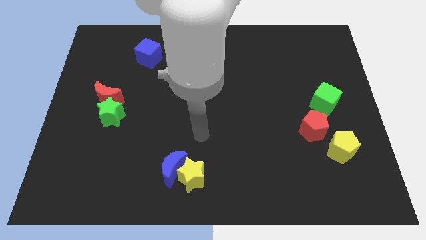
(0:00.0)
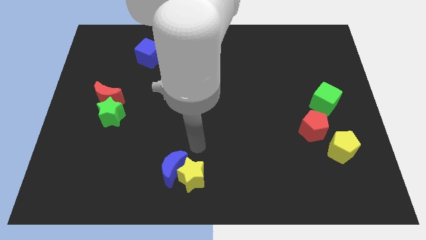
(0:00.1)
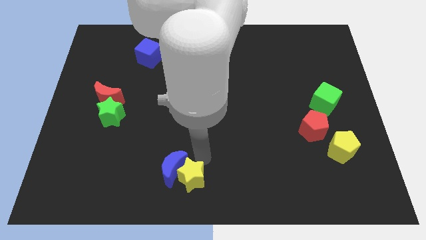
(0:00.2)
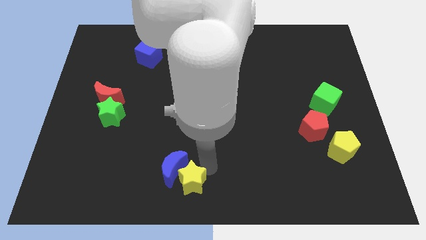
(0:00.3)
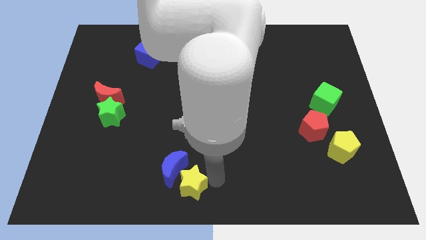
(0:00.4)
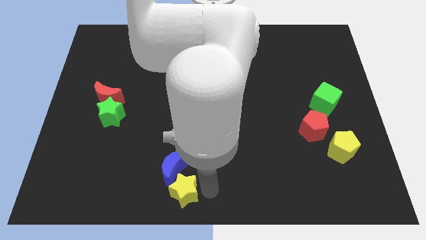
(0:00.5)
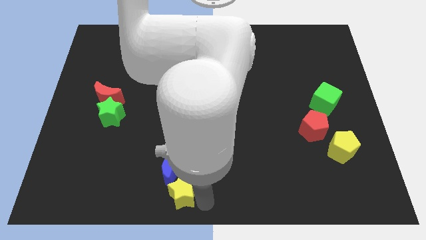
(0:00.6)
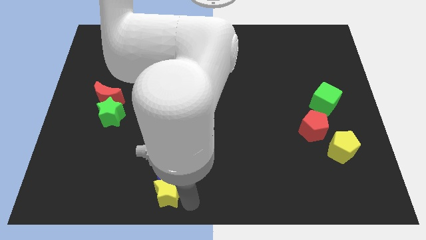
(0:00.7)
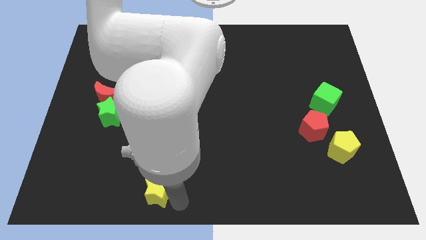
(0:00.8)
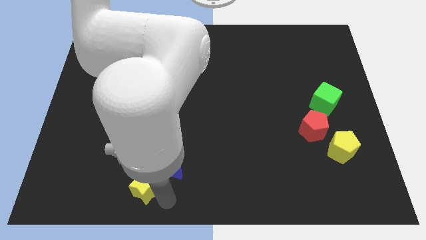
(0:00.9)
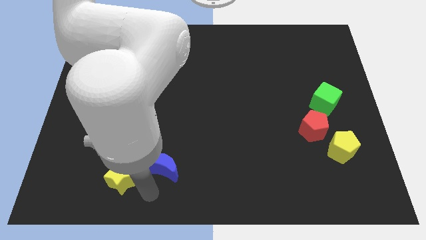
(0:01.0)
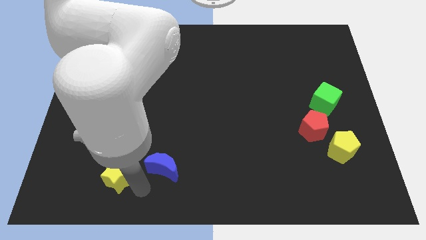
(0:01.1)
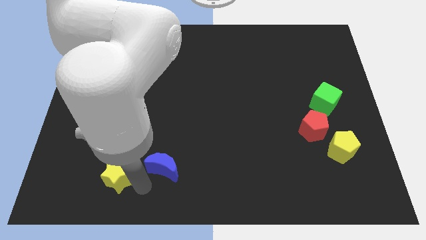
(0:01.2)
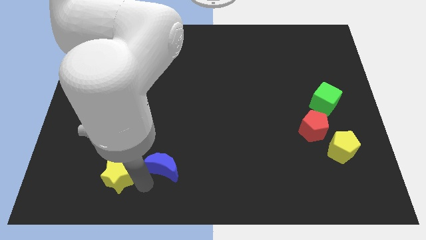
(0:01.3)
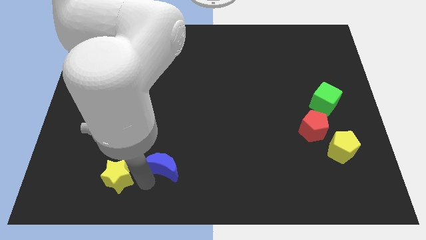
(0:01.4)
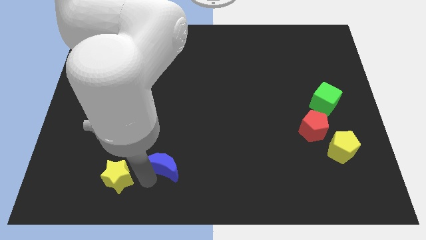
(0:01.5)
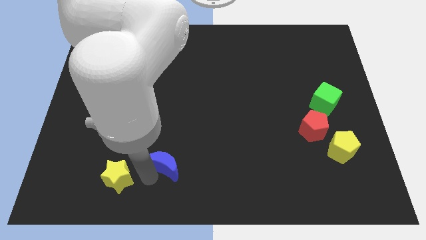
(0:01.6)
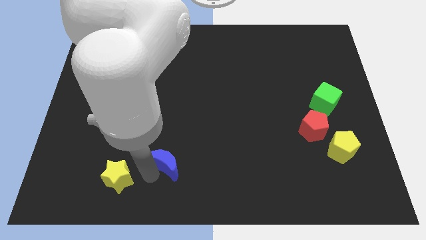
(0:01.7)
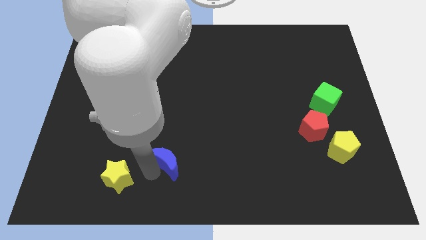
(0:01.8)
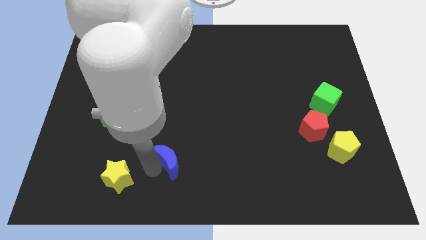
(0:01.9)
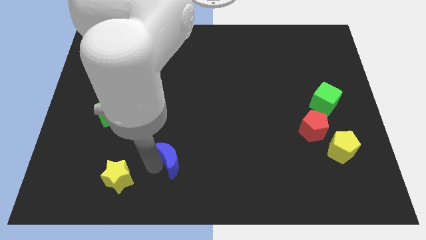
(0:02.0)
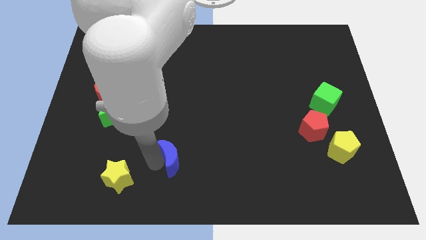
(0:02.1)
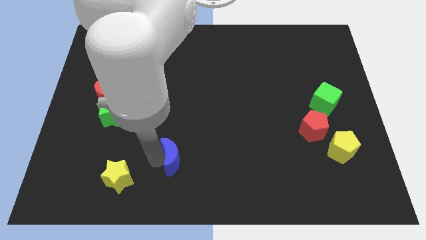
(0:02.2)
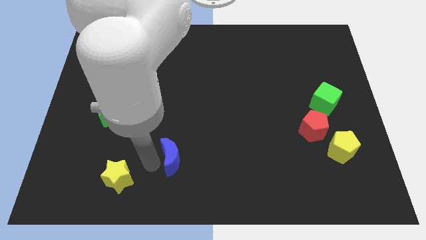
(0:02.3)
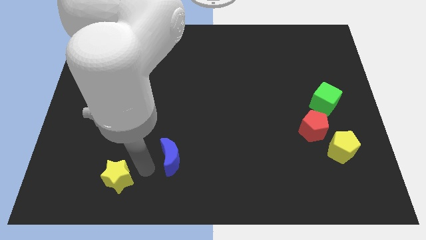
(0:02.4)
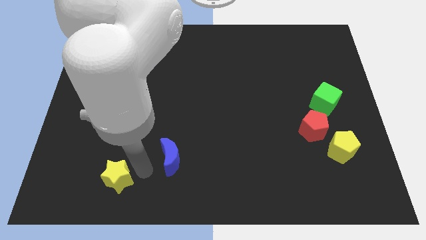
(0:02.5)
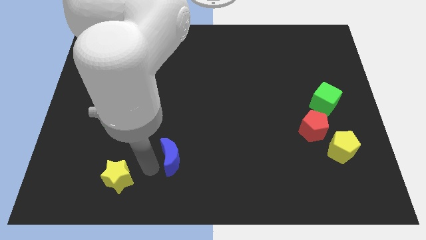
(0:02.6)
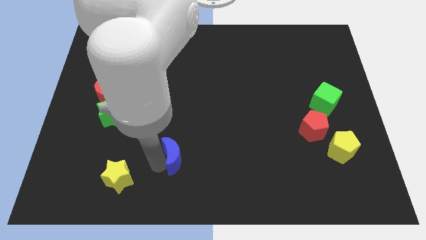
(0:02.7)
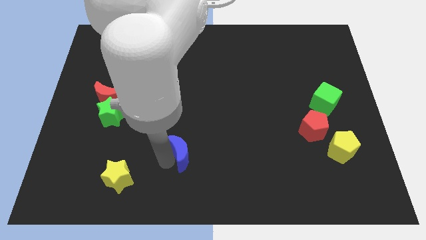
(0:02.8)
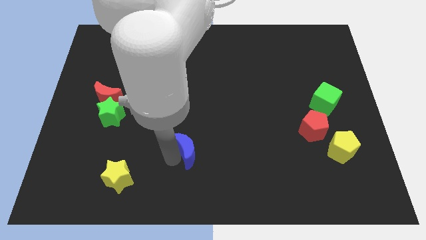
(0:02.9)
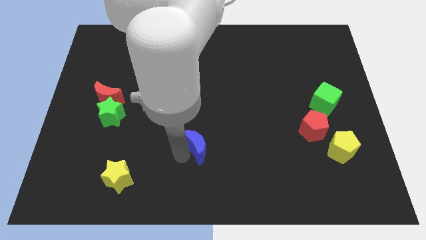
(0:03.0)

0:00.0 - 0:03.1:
slide the blue moon slightly up and then right

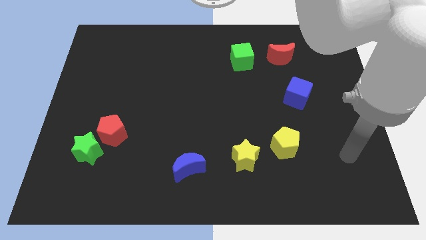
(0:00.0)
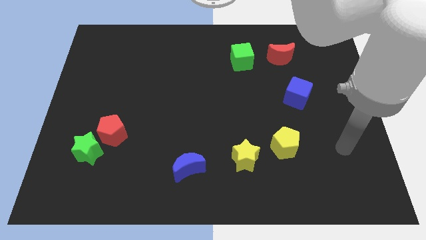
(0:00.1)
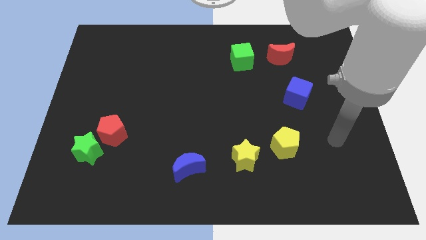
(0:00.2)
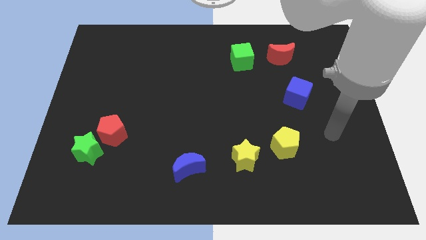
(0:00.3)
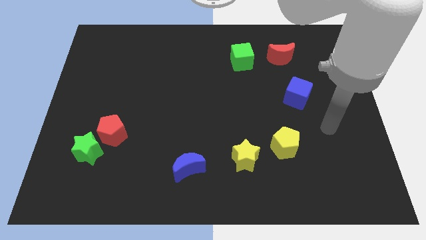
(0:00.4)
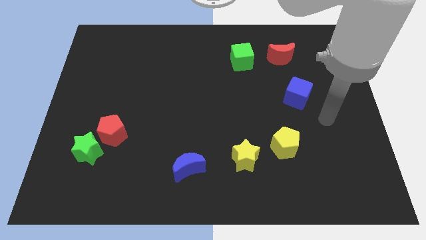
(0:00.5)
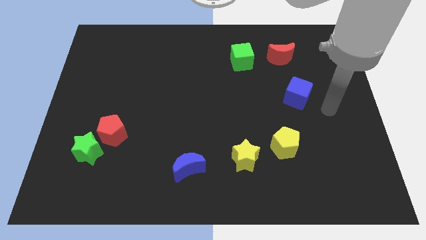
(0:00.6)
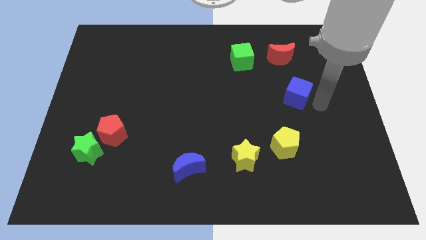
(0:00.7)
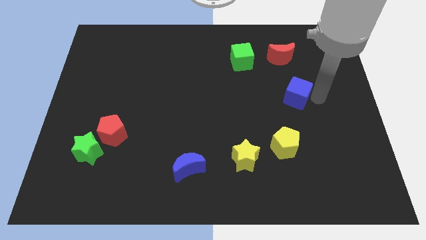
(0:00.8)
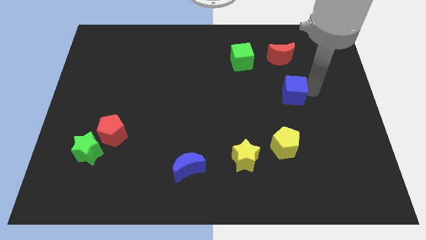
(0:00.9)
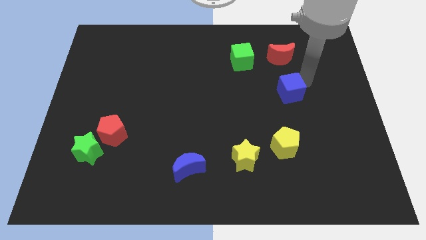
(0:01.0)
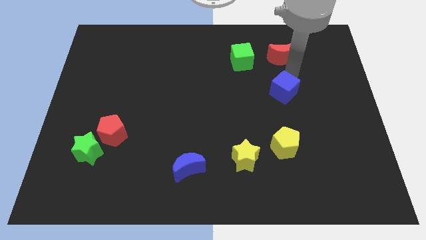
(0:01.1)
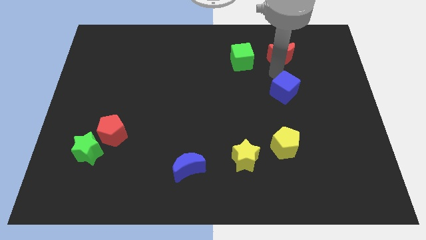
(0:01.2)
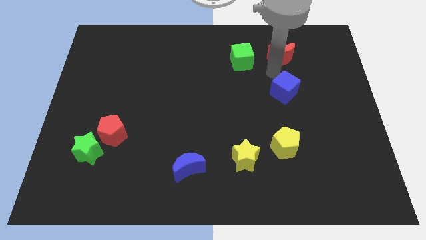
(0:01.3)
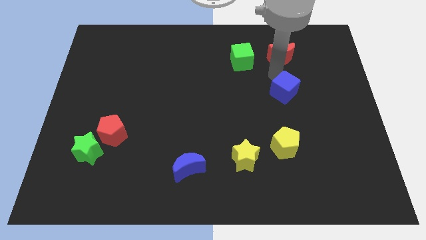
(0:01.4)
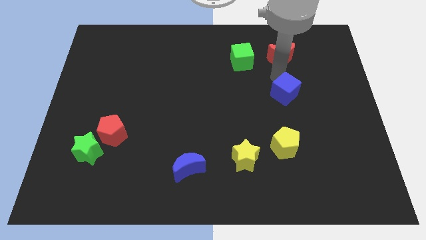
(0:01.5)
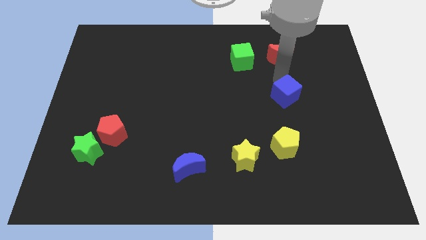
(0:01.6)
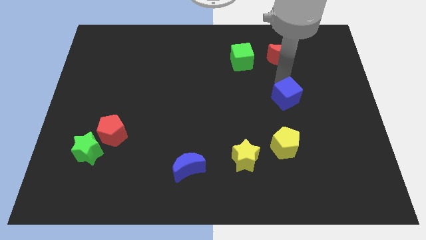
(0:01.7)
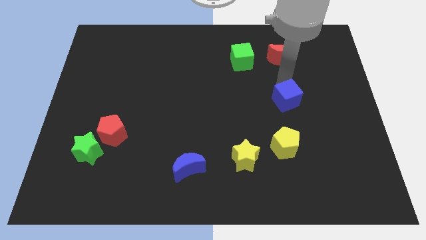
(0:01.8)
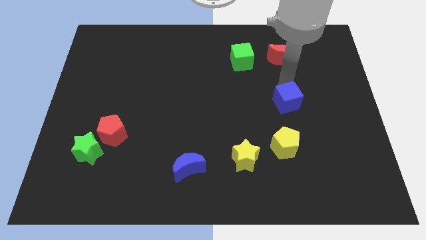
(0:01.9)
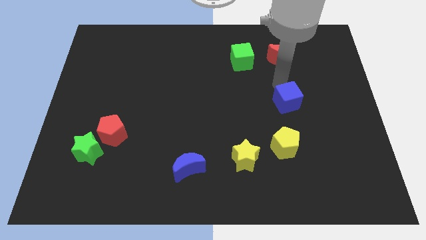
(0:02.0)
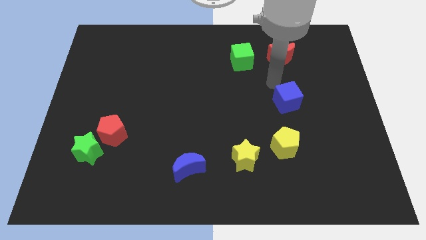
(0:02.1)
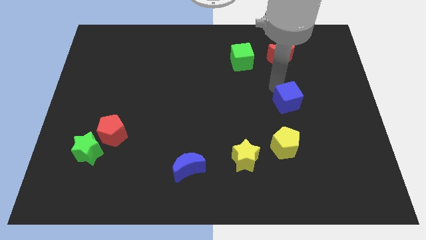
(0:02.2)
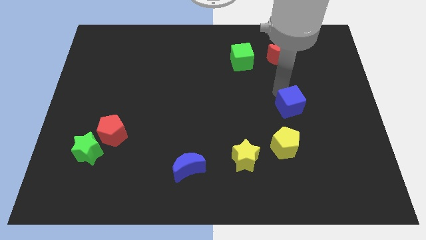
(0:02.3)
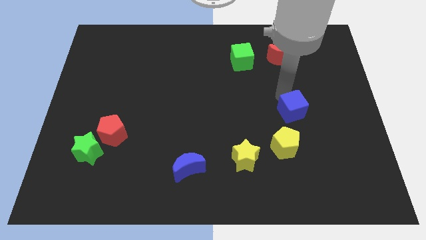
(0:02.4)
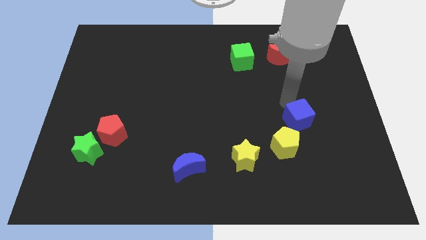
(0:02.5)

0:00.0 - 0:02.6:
move the blue cube down a little

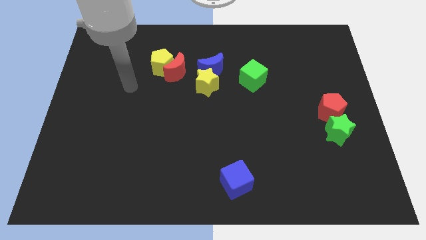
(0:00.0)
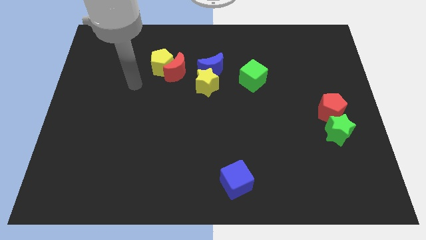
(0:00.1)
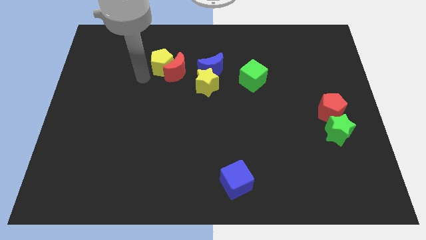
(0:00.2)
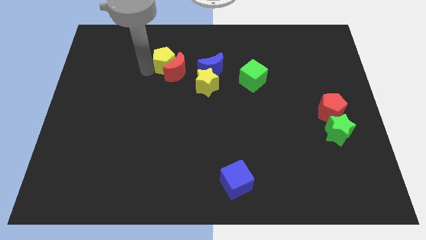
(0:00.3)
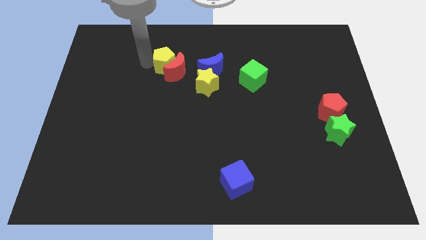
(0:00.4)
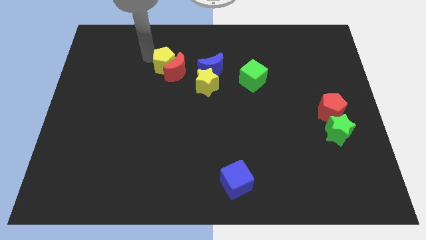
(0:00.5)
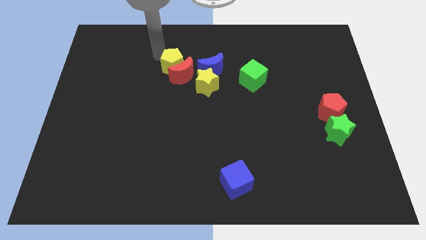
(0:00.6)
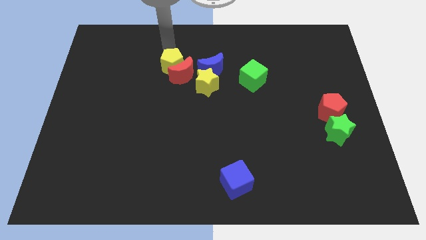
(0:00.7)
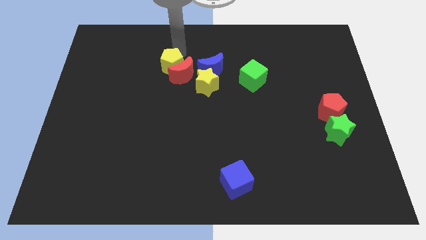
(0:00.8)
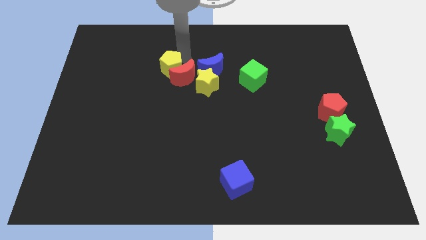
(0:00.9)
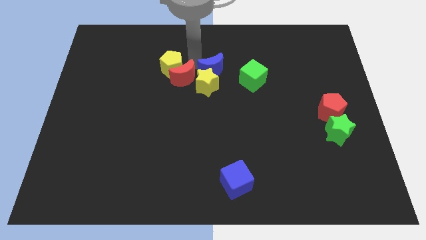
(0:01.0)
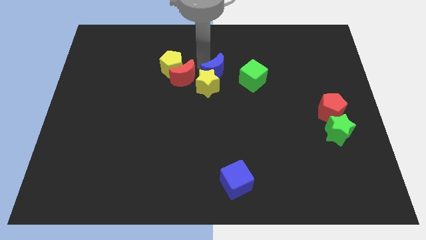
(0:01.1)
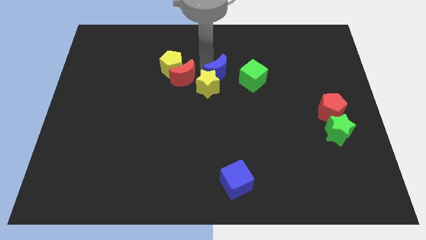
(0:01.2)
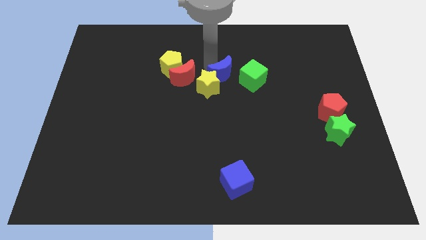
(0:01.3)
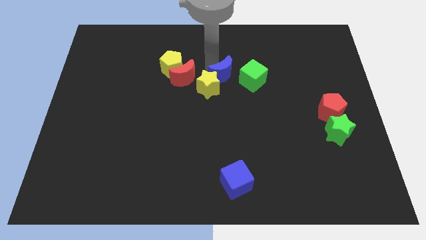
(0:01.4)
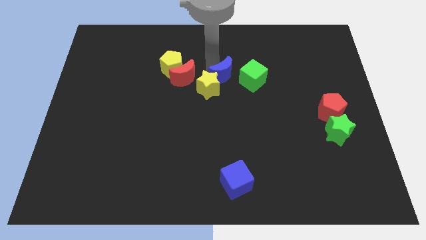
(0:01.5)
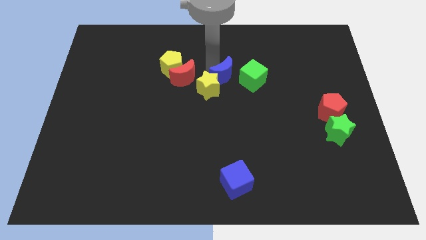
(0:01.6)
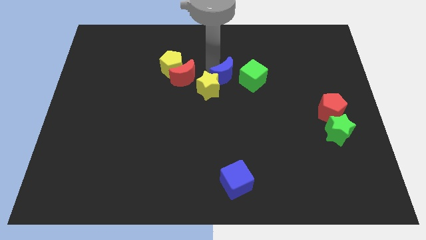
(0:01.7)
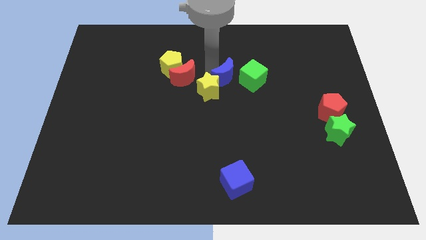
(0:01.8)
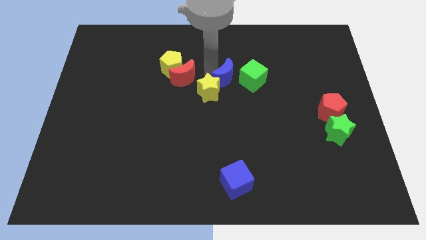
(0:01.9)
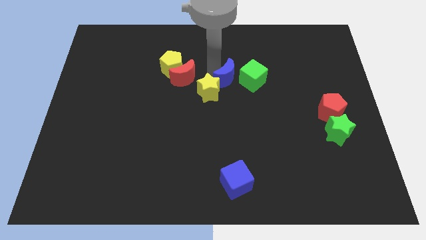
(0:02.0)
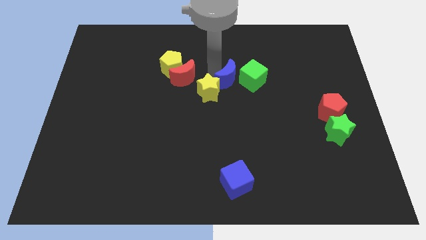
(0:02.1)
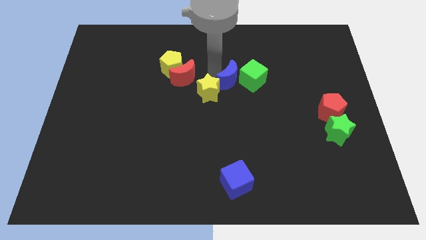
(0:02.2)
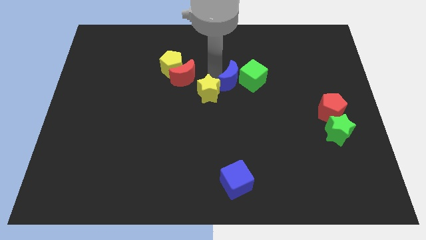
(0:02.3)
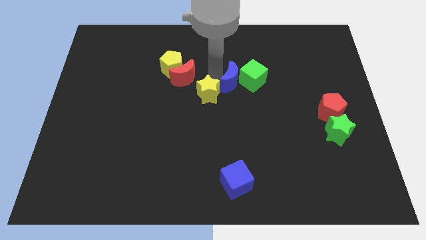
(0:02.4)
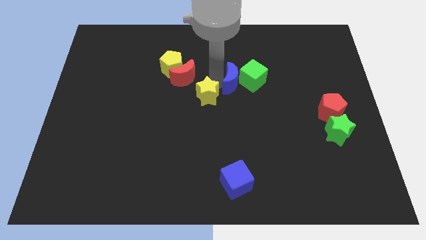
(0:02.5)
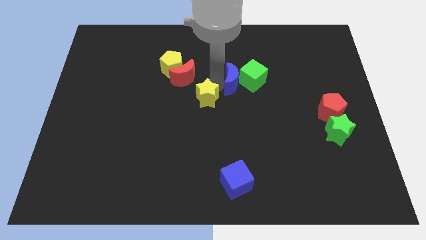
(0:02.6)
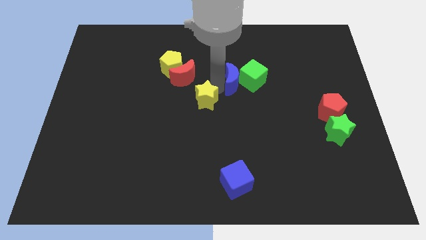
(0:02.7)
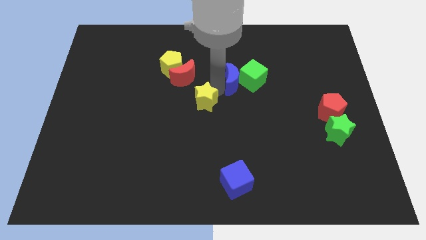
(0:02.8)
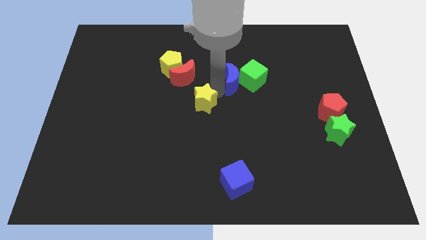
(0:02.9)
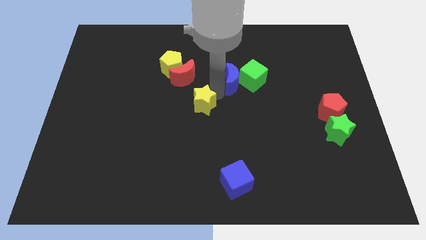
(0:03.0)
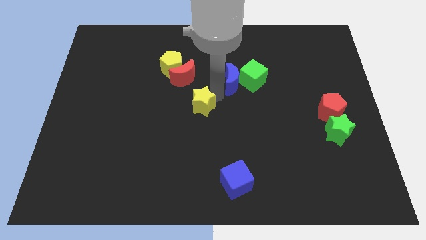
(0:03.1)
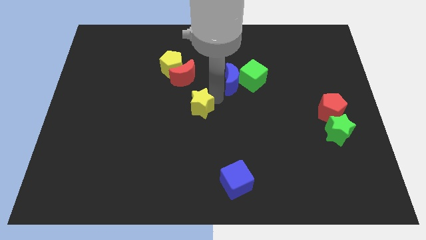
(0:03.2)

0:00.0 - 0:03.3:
move the yellow star downwards a little
